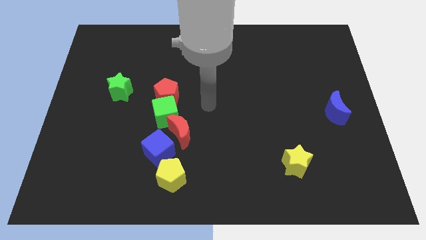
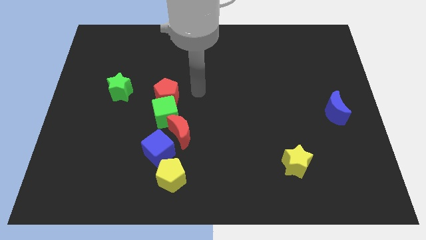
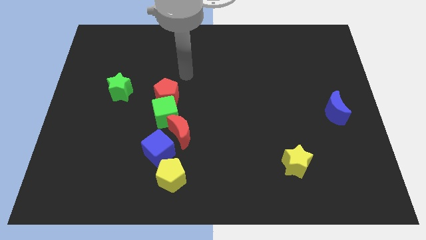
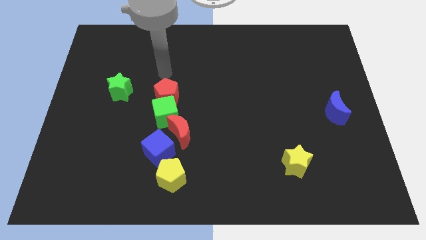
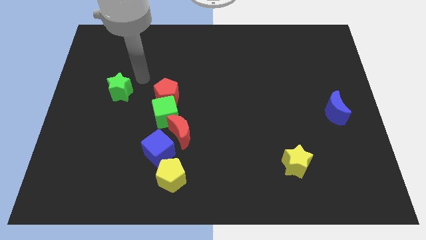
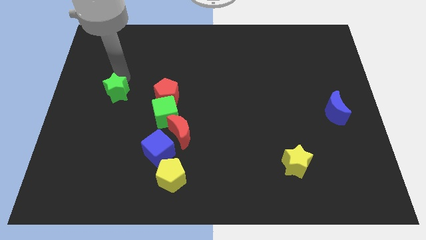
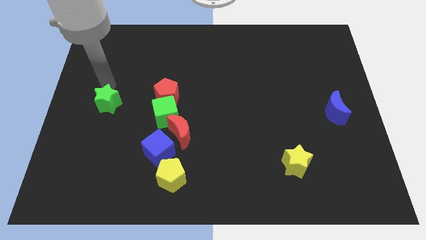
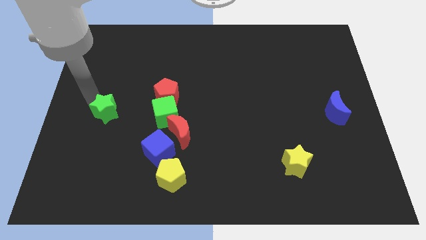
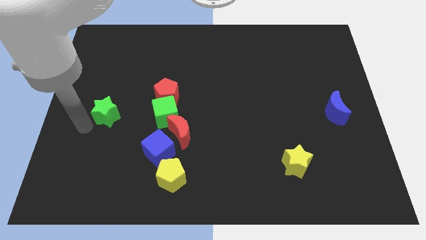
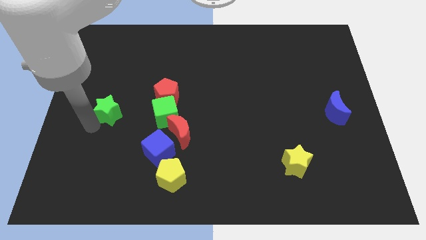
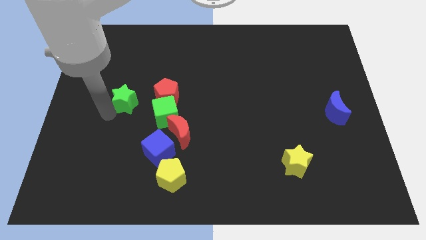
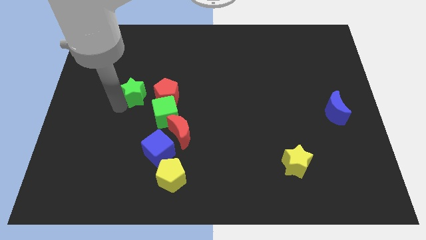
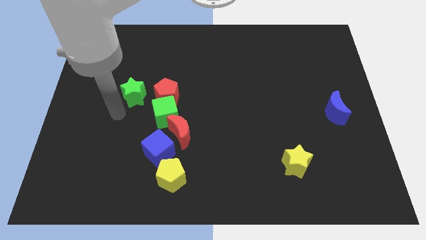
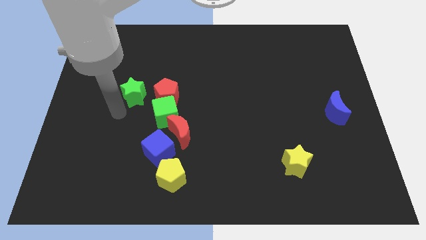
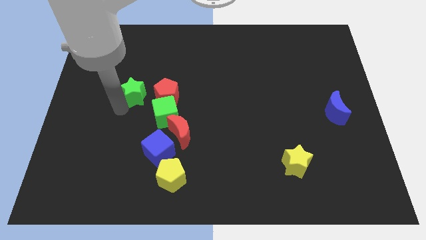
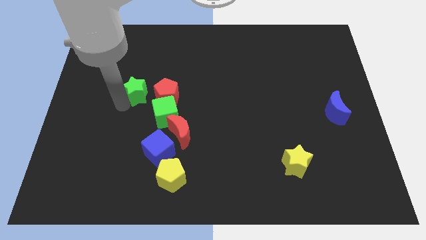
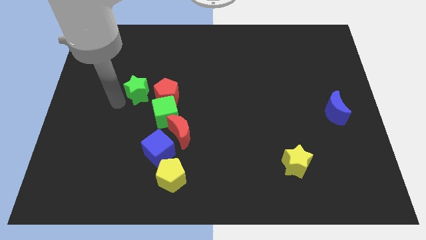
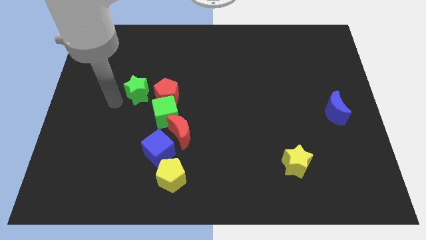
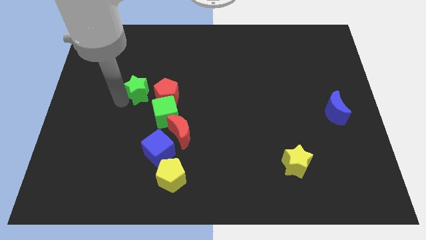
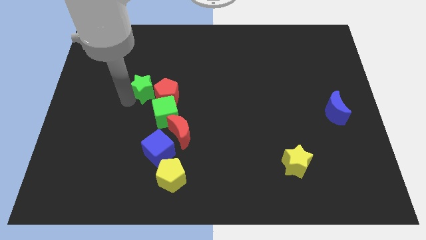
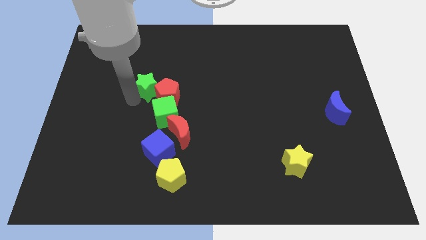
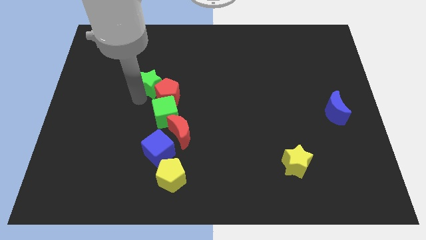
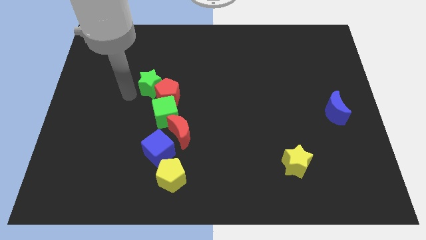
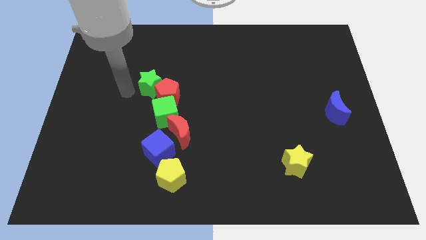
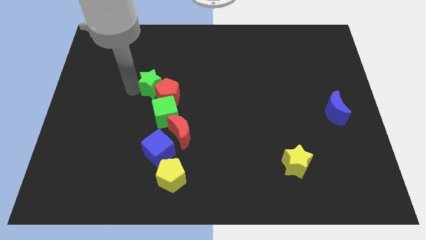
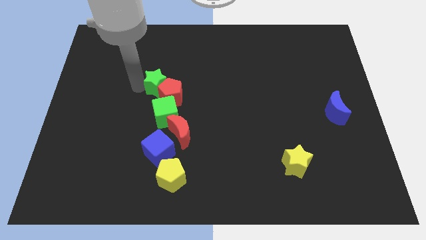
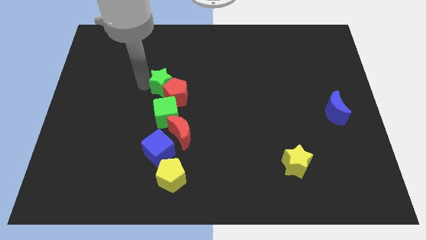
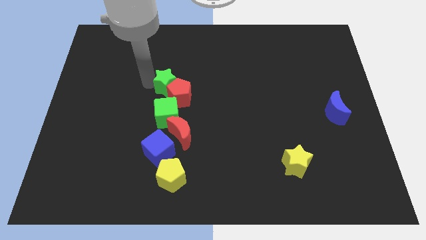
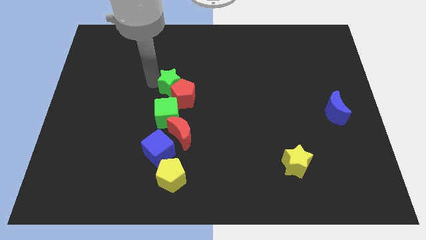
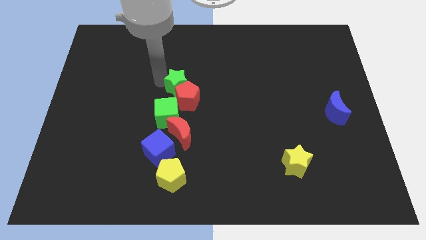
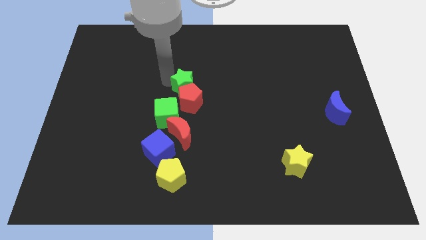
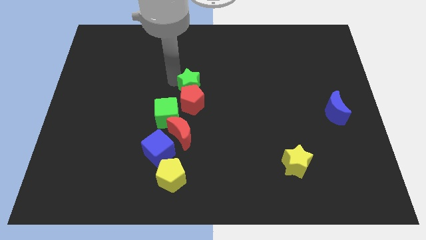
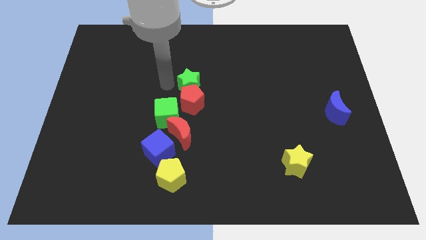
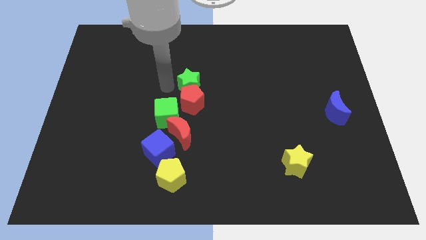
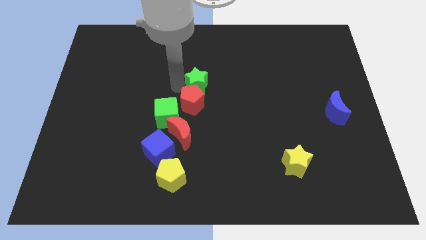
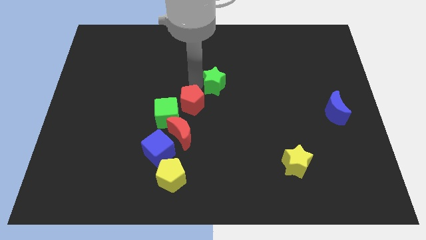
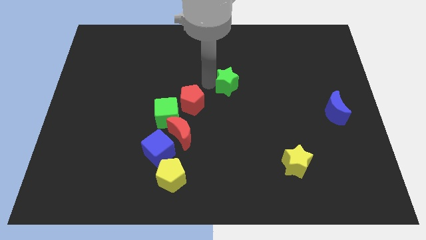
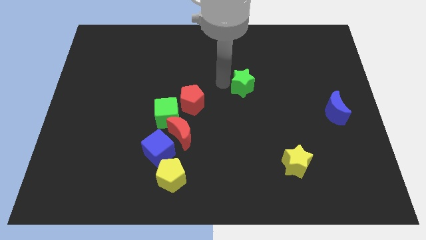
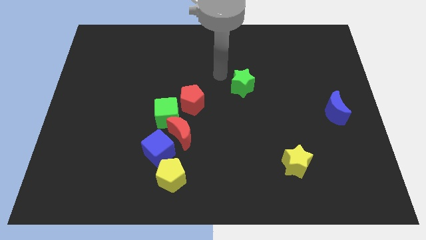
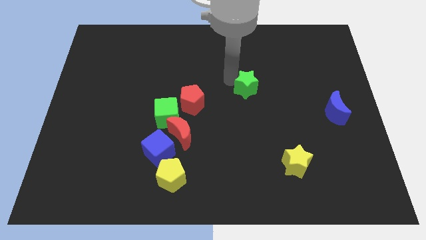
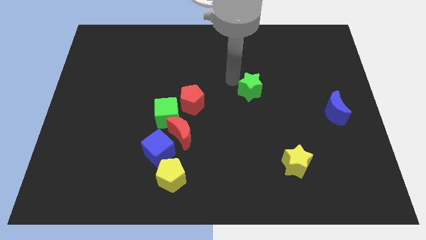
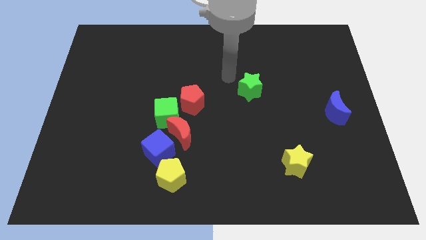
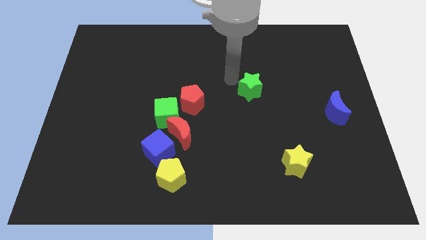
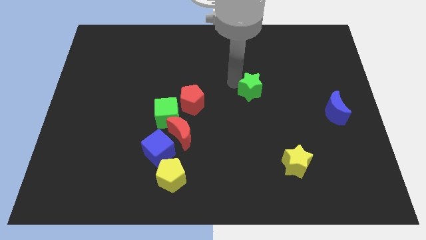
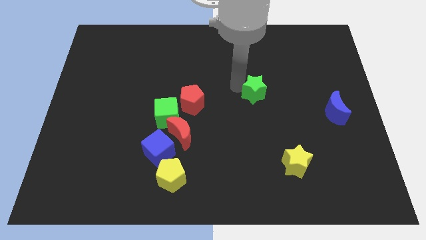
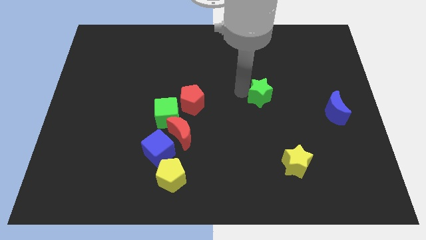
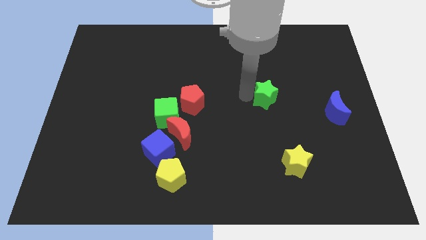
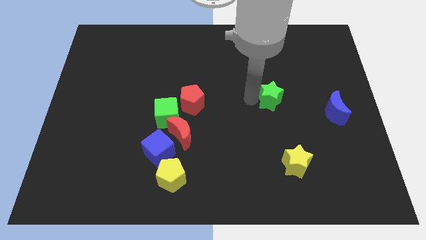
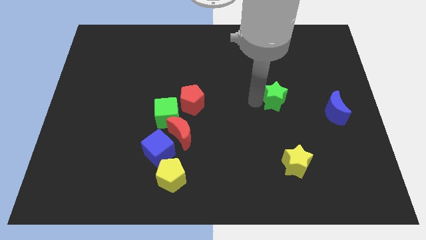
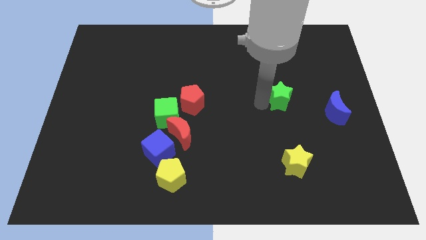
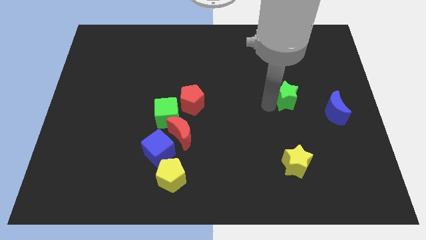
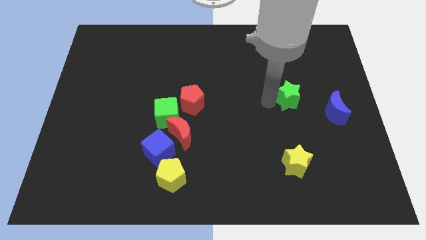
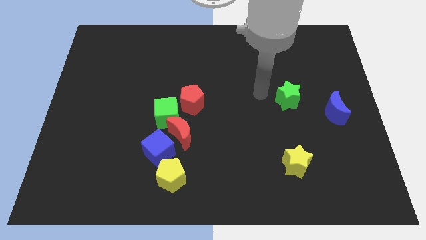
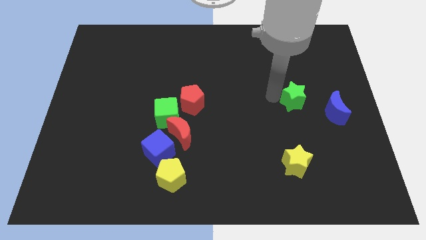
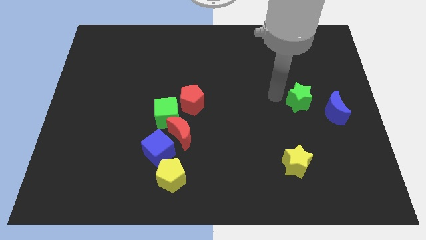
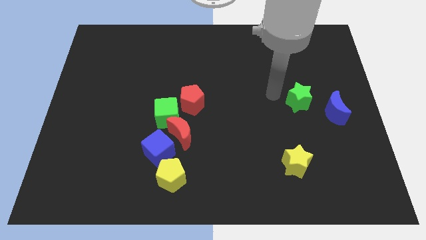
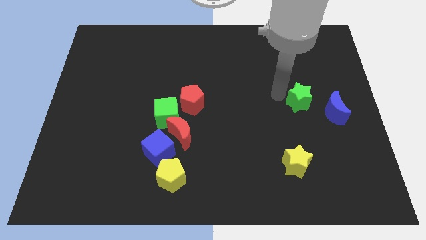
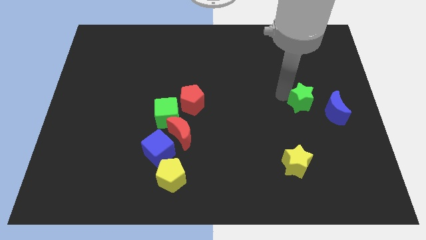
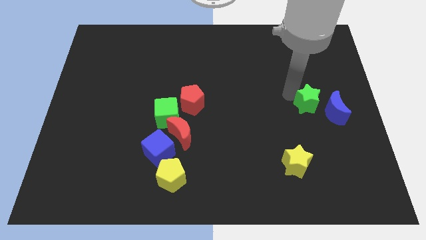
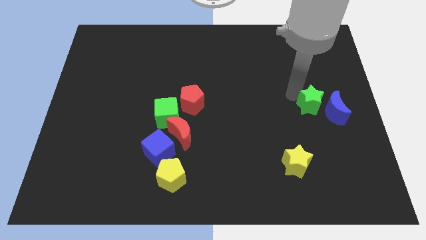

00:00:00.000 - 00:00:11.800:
move the green star towards the blue moon

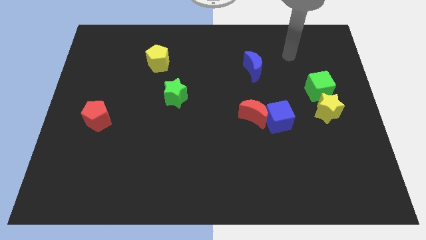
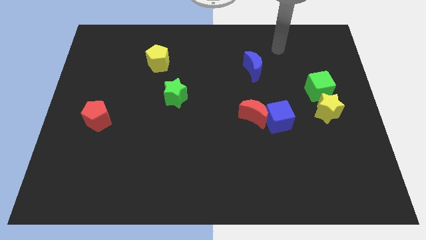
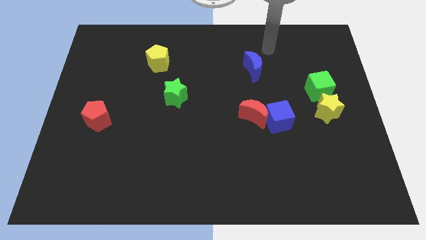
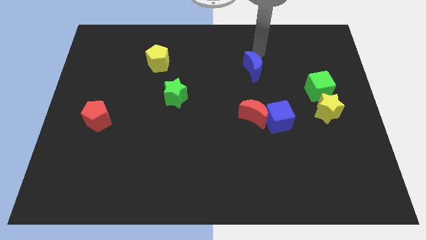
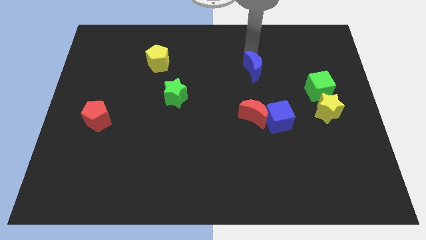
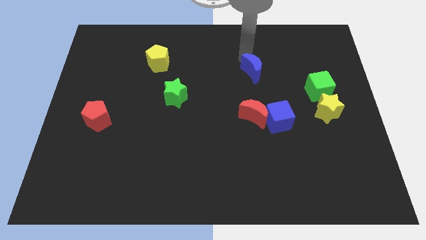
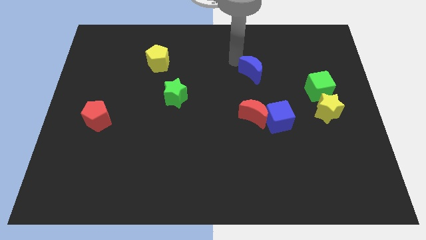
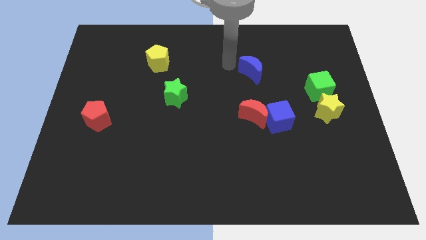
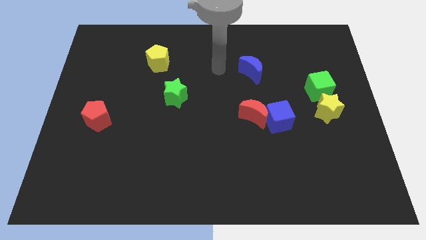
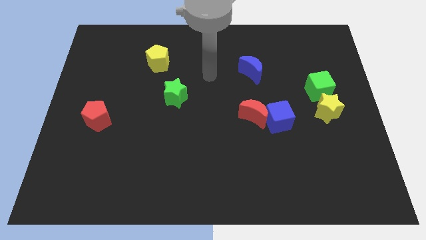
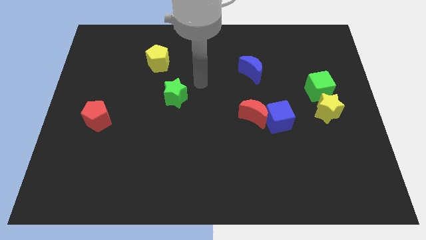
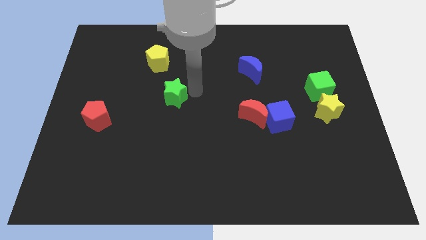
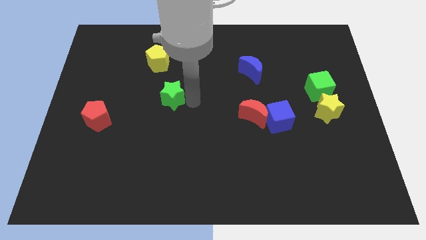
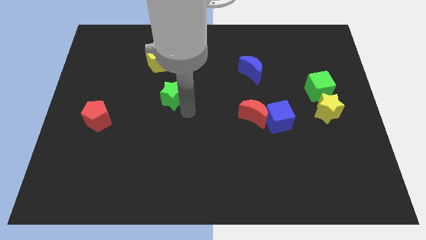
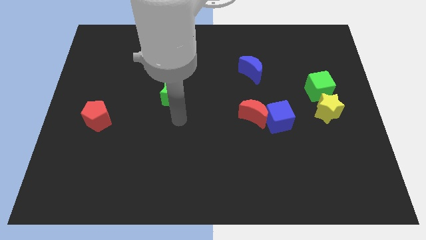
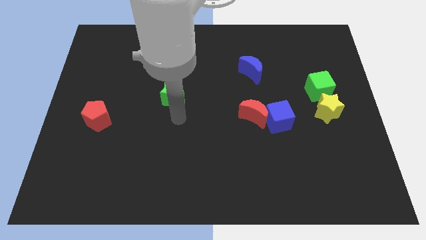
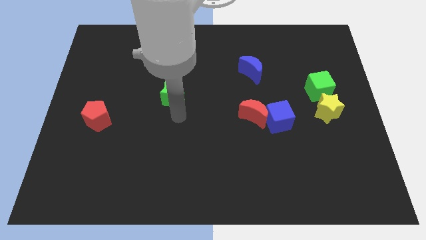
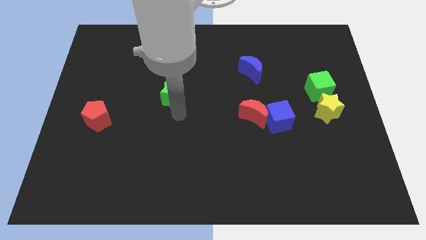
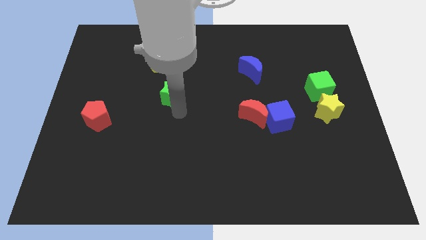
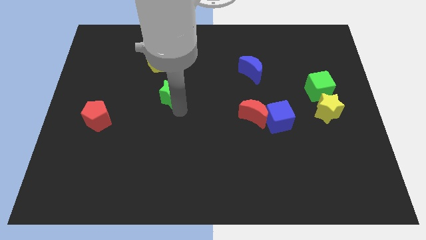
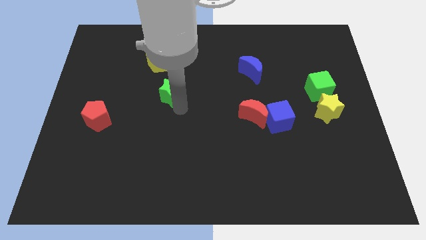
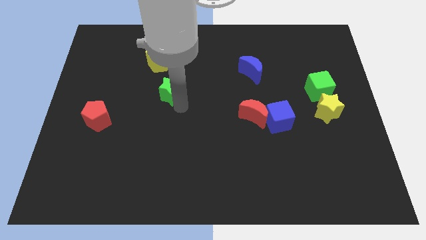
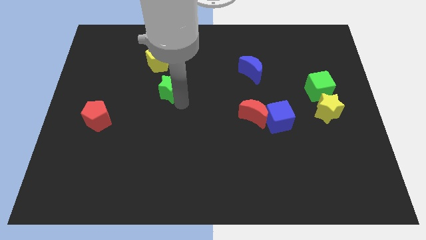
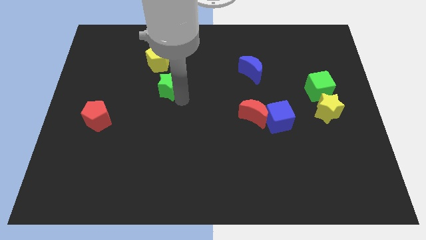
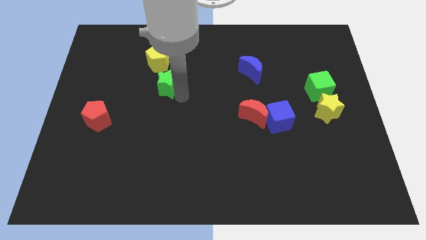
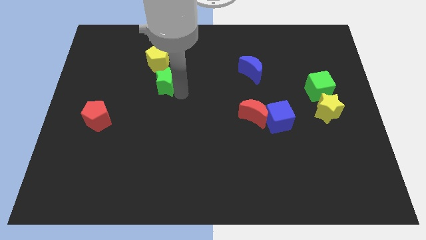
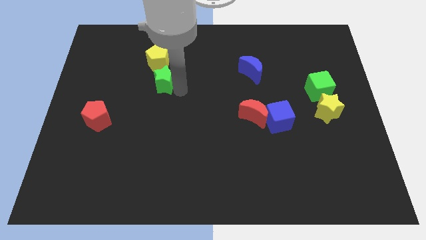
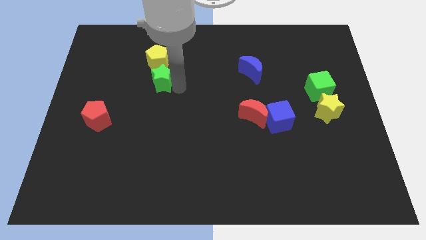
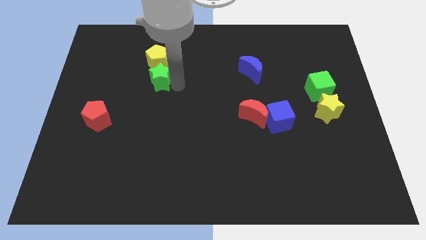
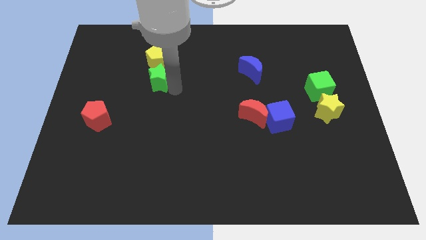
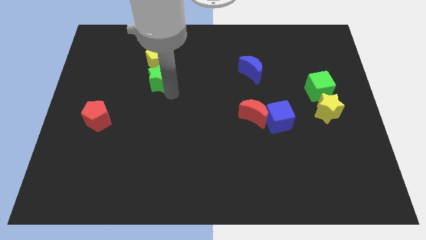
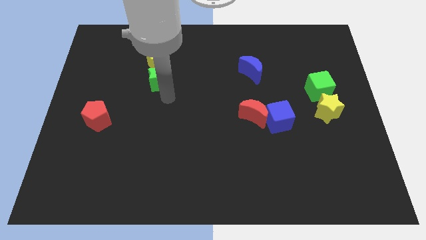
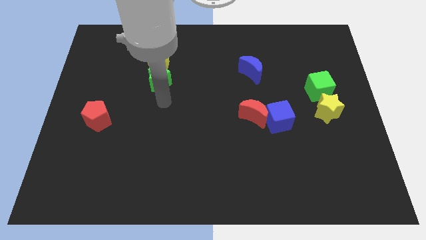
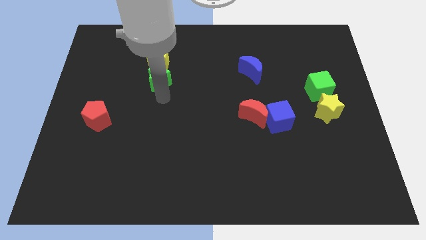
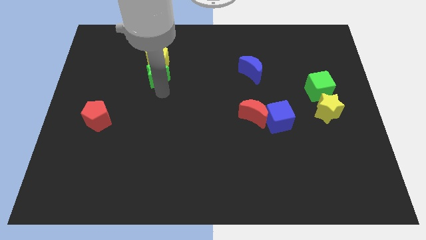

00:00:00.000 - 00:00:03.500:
push the green star close to the yellow pentagon
